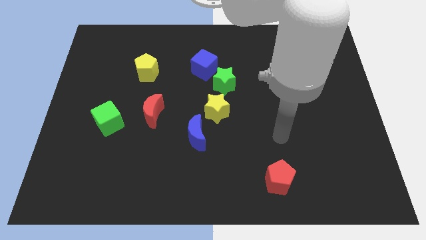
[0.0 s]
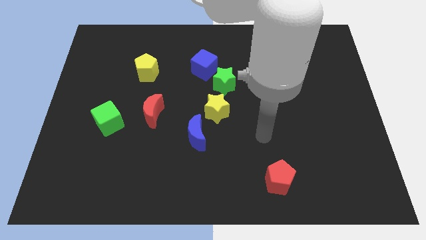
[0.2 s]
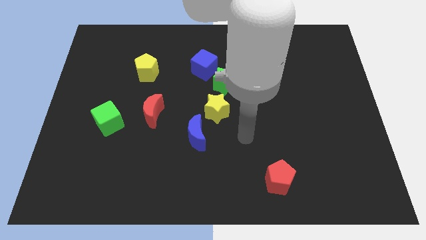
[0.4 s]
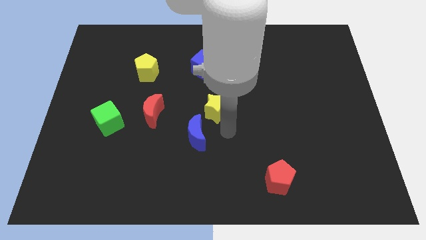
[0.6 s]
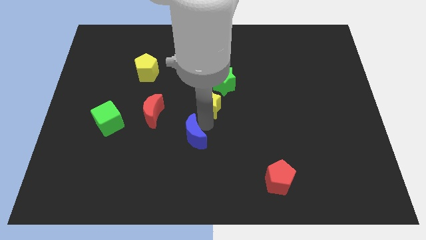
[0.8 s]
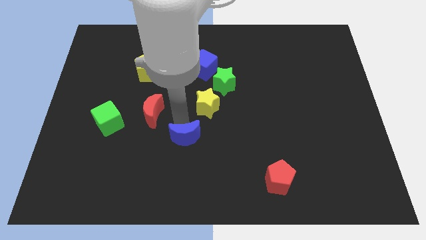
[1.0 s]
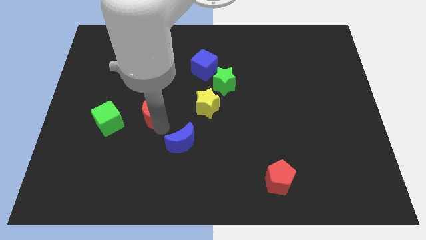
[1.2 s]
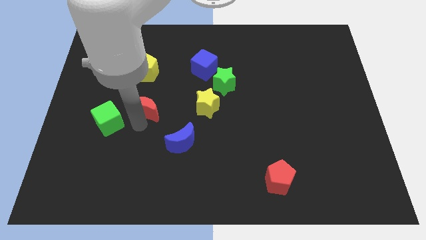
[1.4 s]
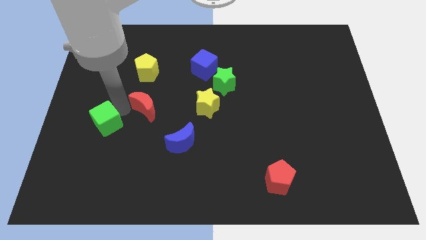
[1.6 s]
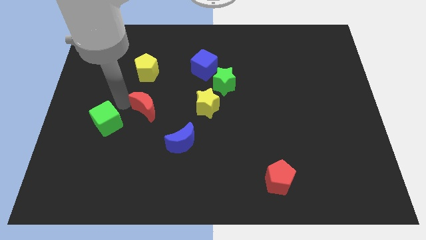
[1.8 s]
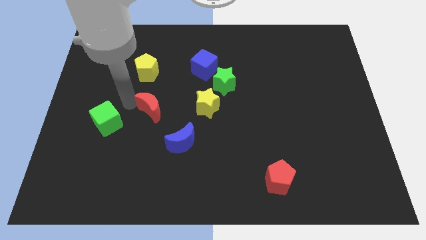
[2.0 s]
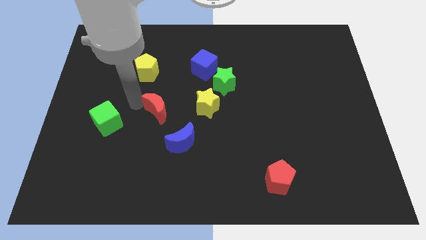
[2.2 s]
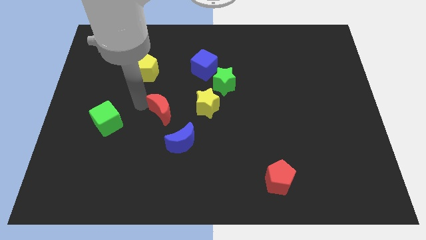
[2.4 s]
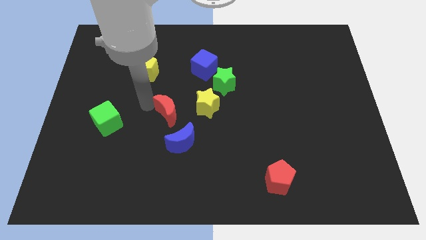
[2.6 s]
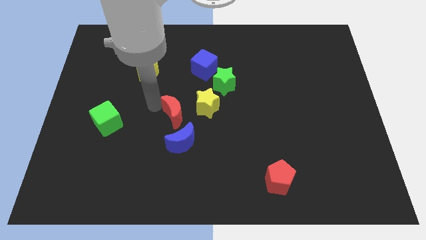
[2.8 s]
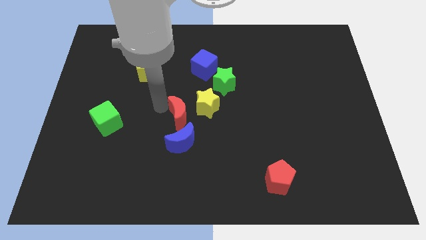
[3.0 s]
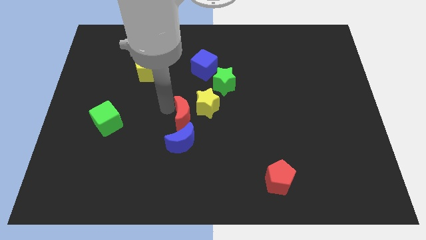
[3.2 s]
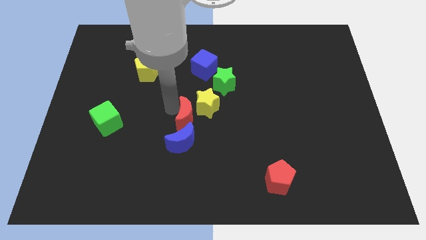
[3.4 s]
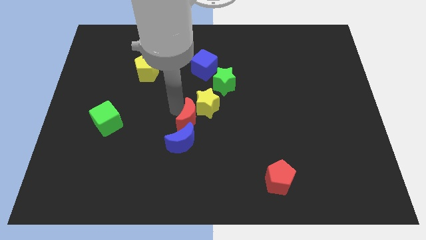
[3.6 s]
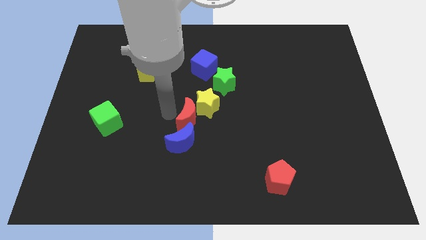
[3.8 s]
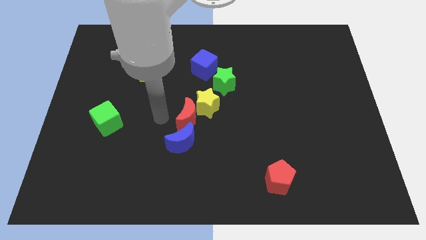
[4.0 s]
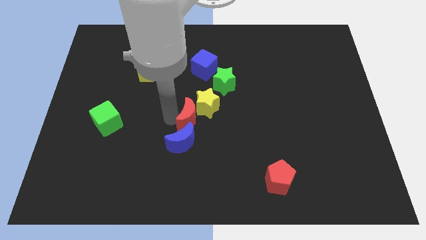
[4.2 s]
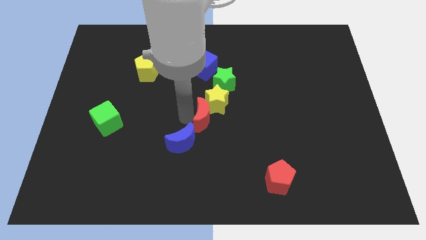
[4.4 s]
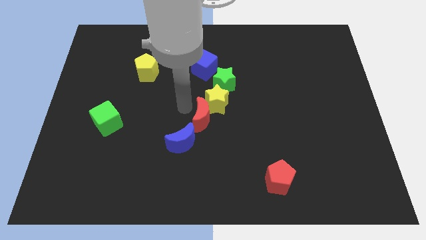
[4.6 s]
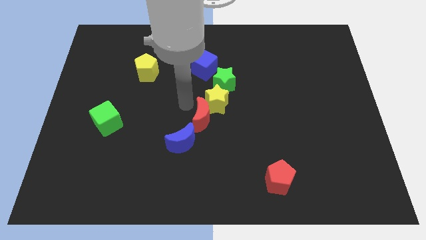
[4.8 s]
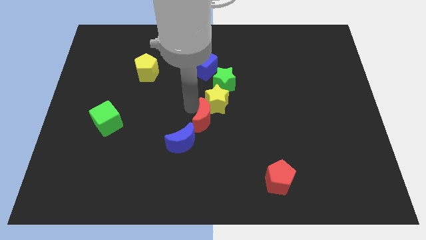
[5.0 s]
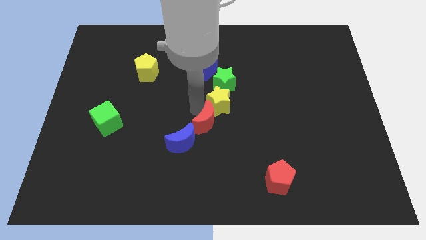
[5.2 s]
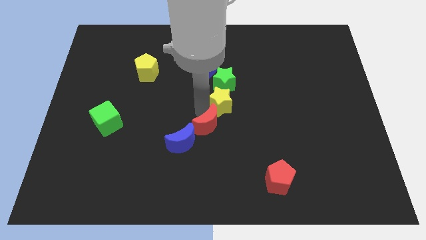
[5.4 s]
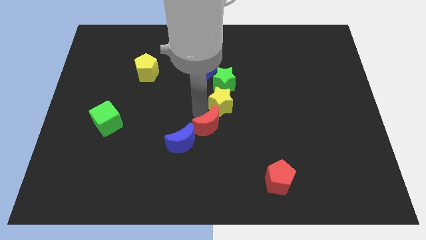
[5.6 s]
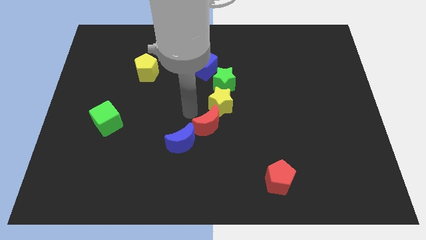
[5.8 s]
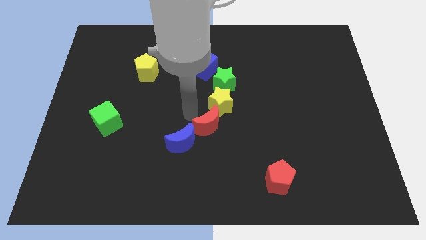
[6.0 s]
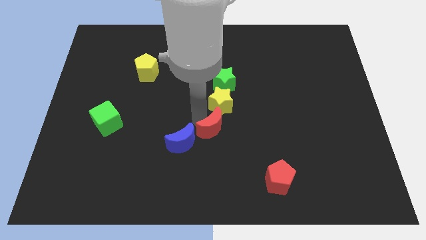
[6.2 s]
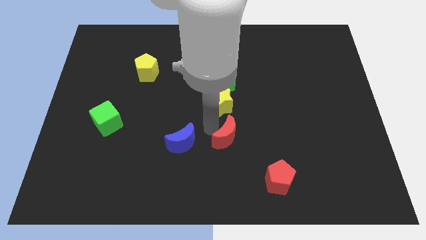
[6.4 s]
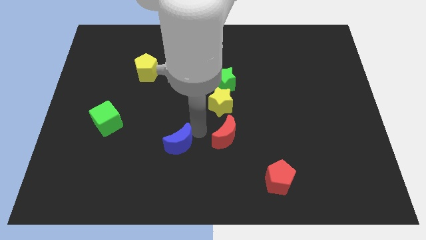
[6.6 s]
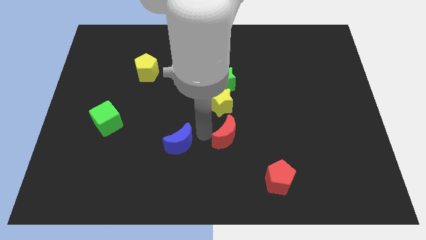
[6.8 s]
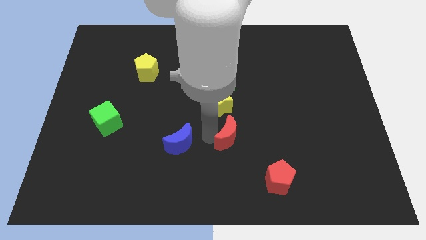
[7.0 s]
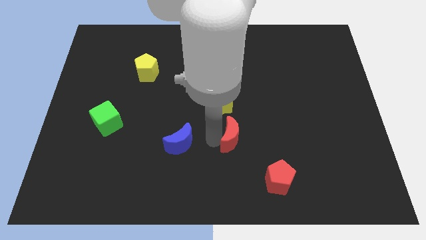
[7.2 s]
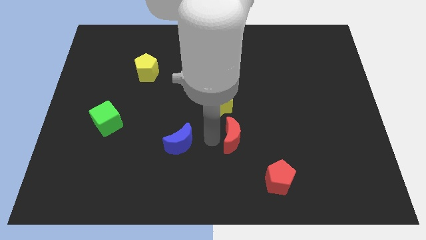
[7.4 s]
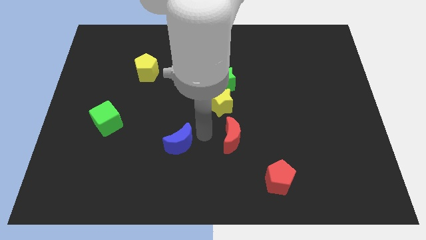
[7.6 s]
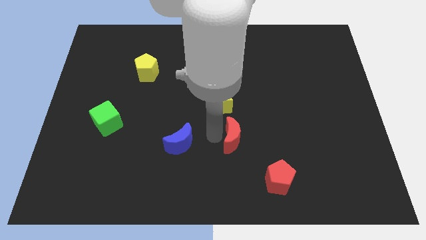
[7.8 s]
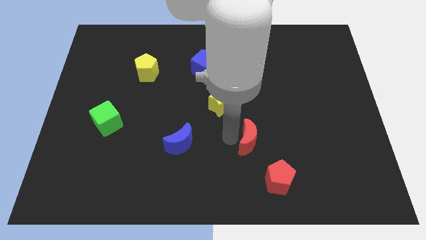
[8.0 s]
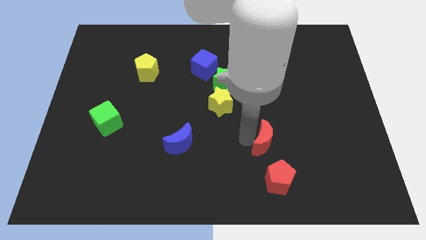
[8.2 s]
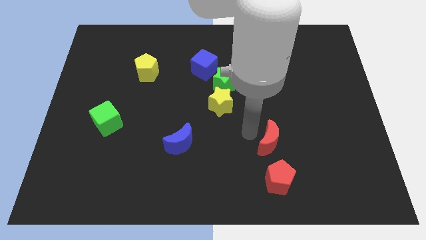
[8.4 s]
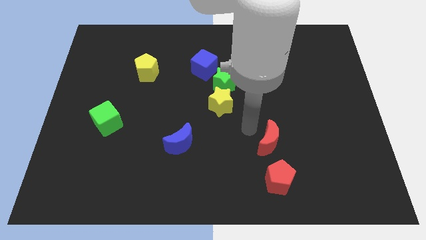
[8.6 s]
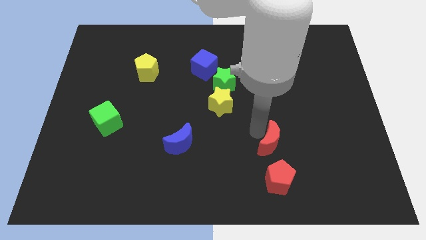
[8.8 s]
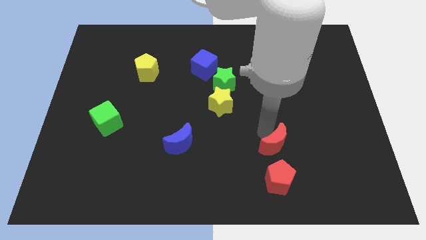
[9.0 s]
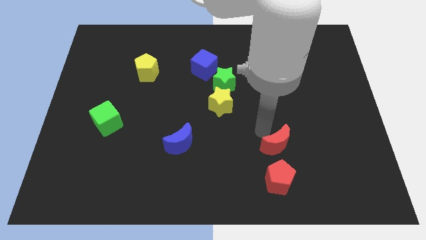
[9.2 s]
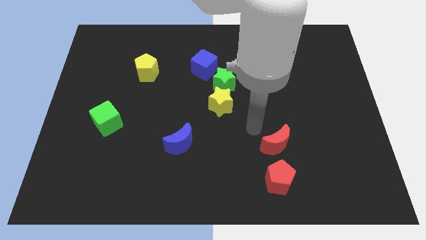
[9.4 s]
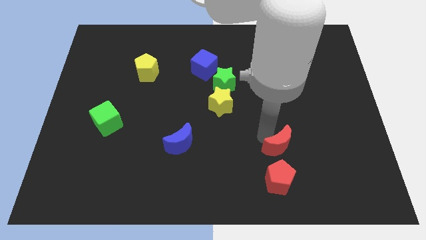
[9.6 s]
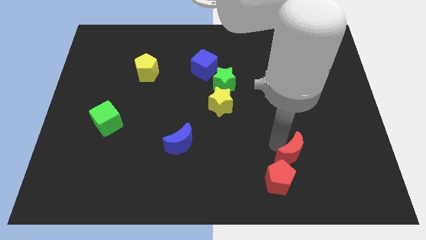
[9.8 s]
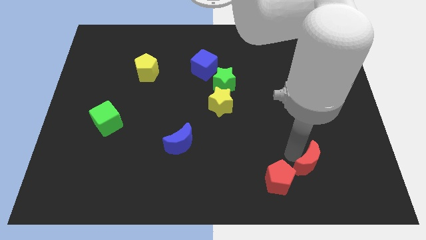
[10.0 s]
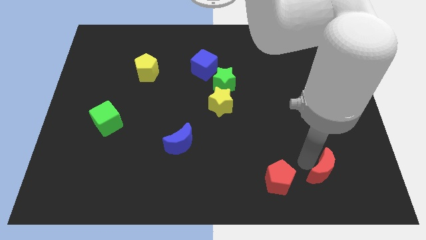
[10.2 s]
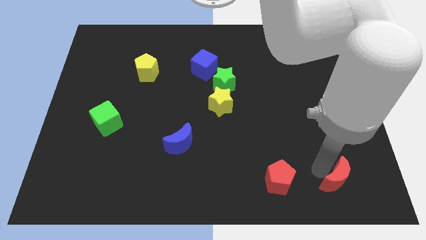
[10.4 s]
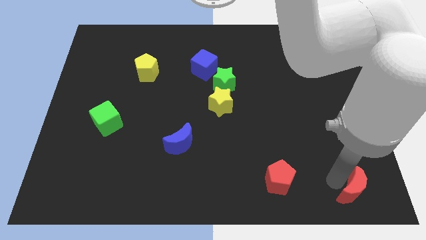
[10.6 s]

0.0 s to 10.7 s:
push the red moon to the bottom right corner
